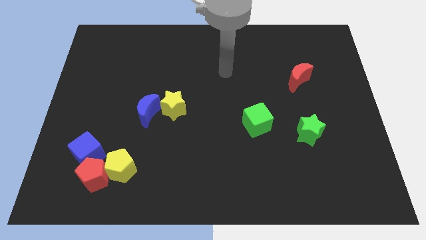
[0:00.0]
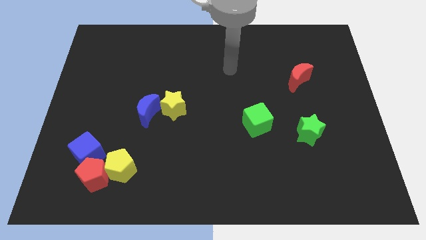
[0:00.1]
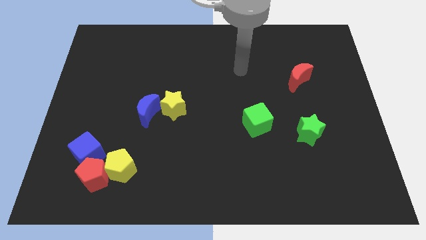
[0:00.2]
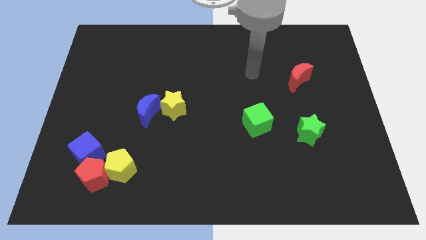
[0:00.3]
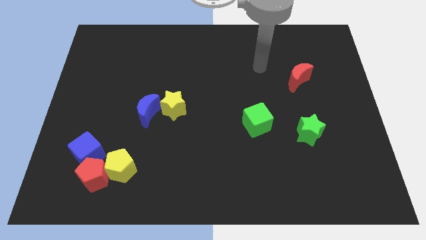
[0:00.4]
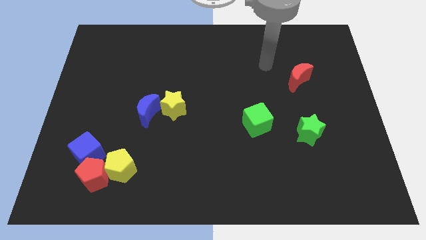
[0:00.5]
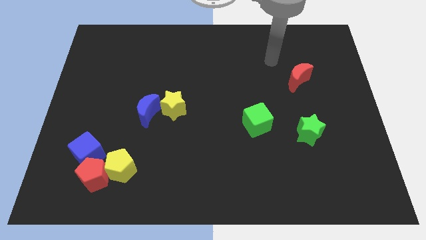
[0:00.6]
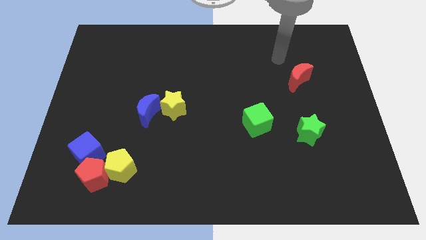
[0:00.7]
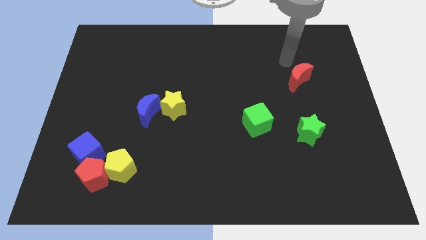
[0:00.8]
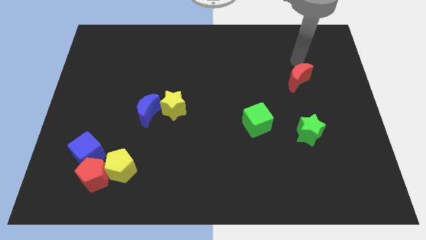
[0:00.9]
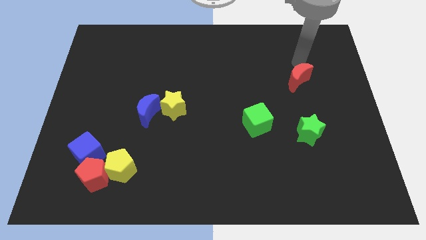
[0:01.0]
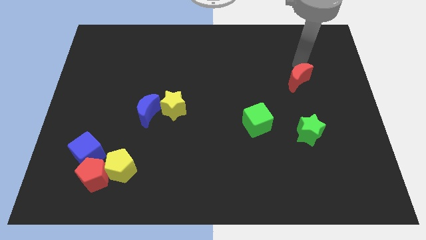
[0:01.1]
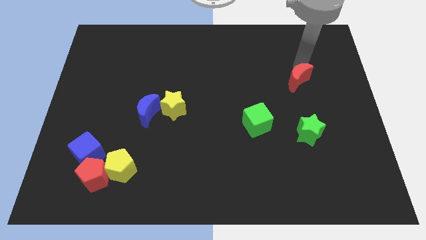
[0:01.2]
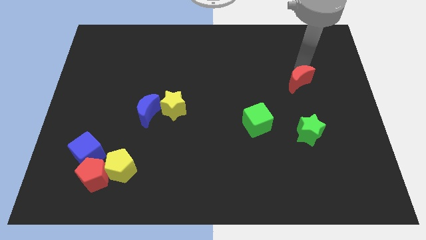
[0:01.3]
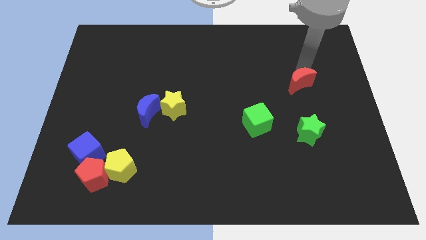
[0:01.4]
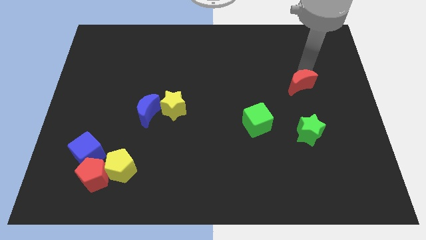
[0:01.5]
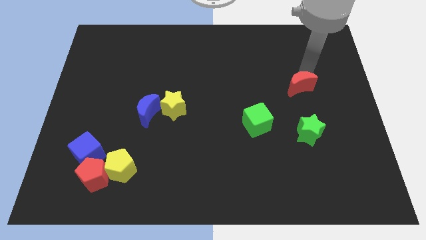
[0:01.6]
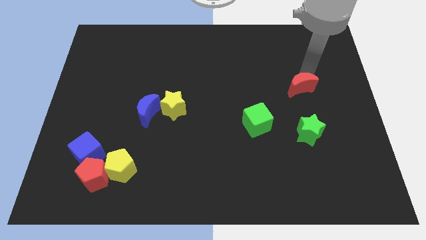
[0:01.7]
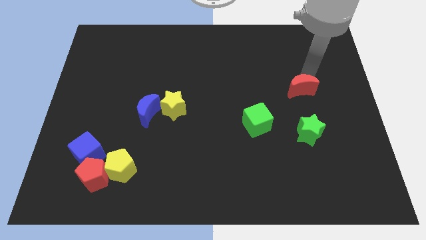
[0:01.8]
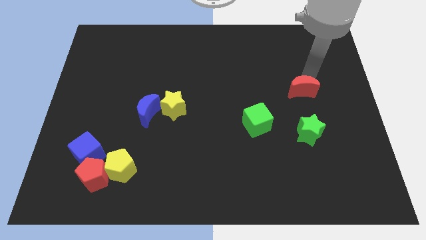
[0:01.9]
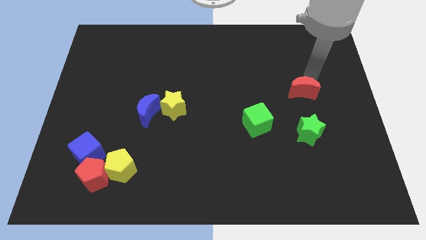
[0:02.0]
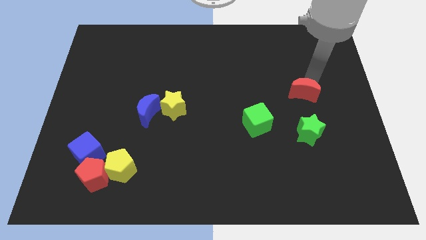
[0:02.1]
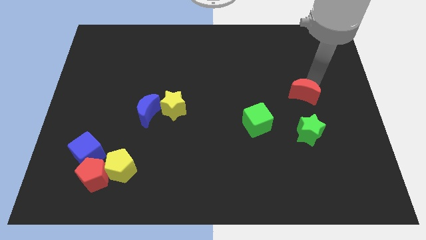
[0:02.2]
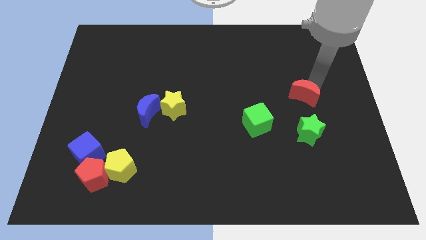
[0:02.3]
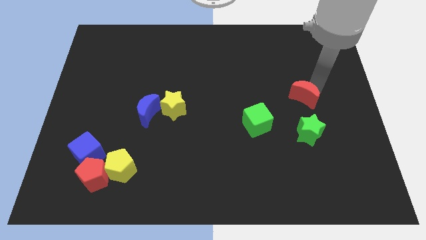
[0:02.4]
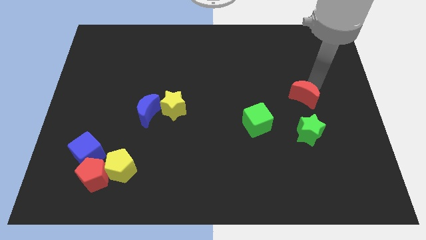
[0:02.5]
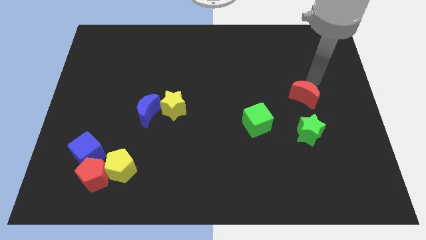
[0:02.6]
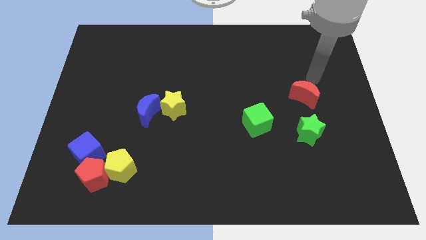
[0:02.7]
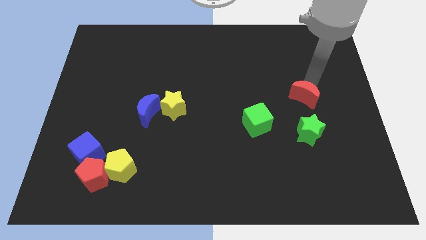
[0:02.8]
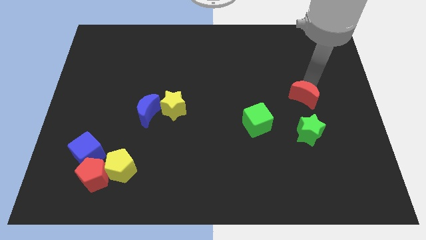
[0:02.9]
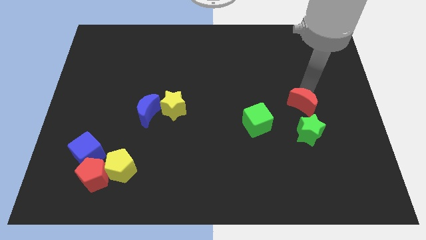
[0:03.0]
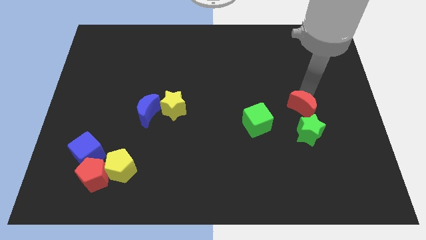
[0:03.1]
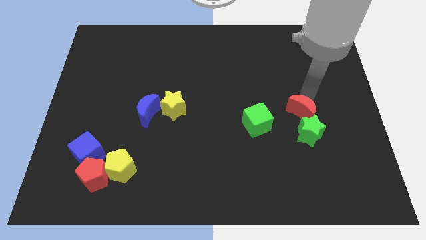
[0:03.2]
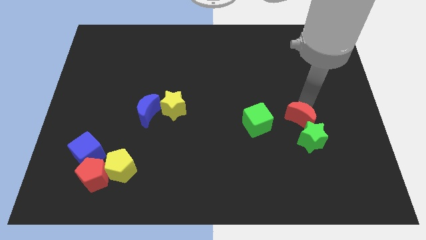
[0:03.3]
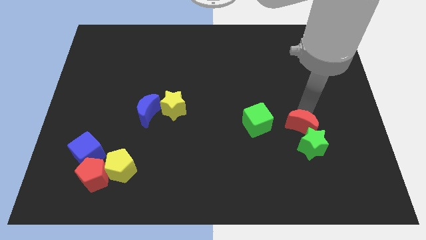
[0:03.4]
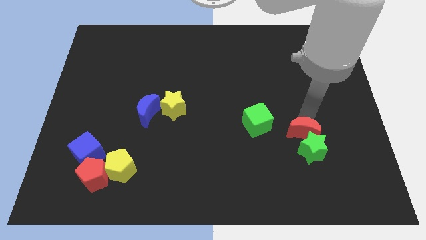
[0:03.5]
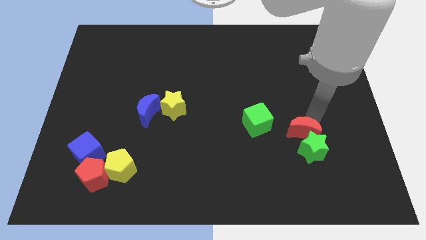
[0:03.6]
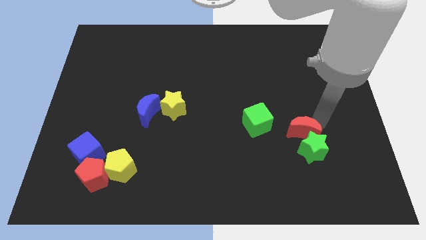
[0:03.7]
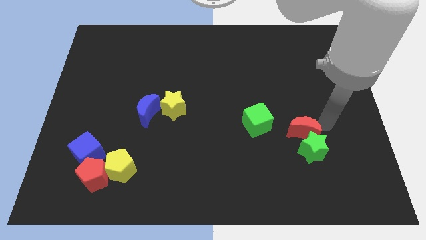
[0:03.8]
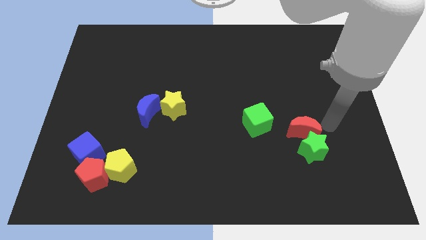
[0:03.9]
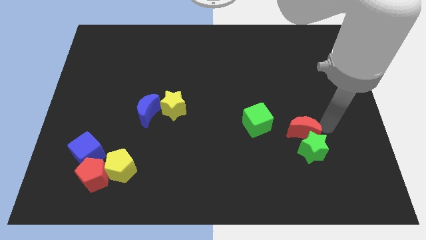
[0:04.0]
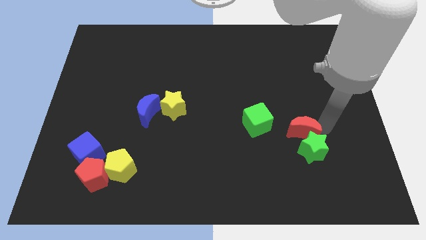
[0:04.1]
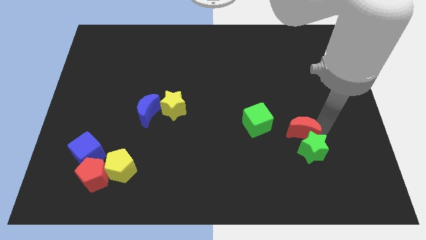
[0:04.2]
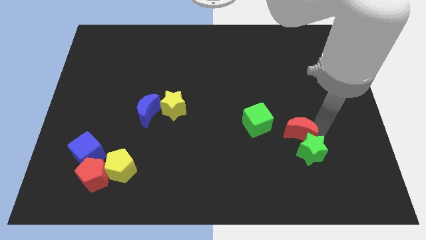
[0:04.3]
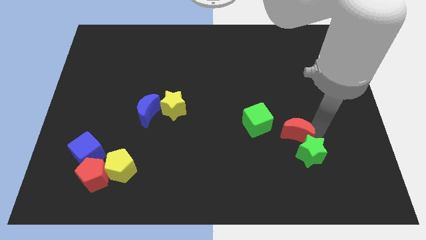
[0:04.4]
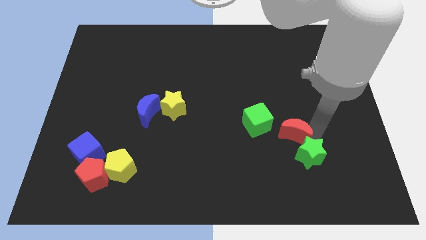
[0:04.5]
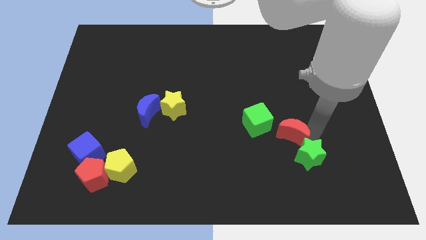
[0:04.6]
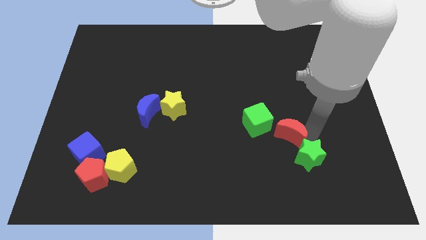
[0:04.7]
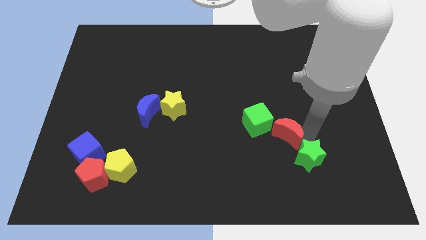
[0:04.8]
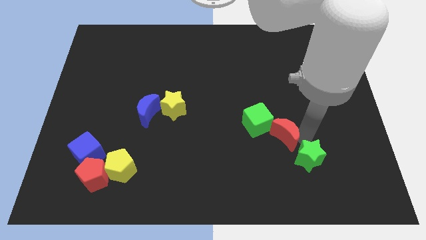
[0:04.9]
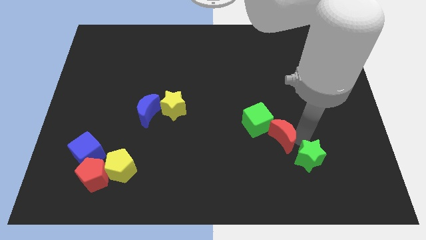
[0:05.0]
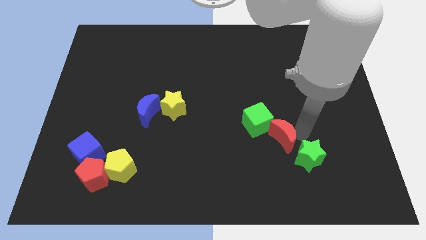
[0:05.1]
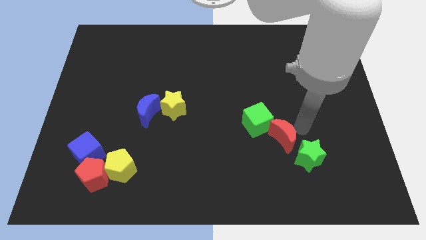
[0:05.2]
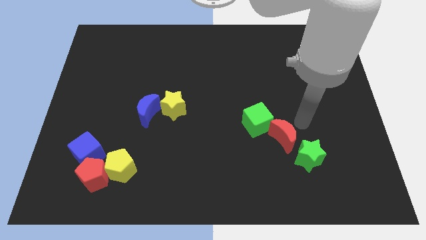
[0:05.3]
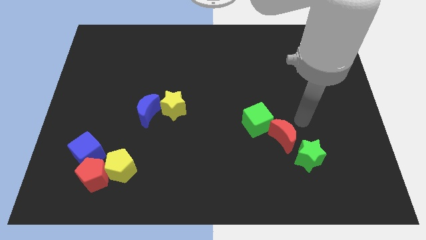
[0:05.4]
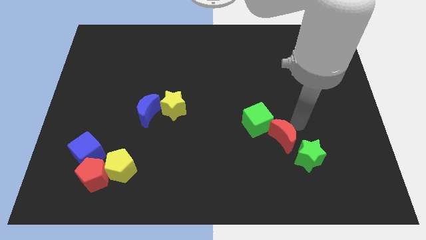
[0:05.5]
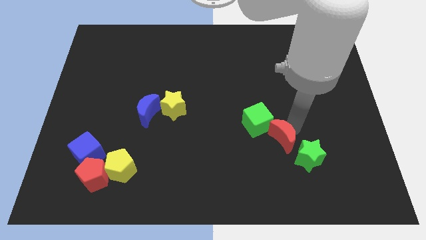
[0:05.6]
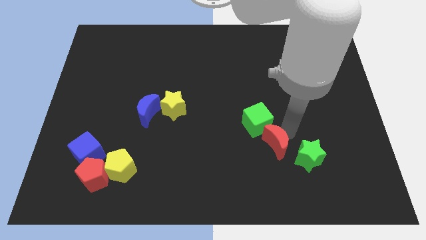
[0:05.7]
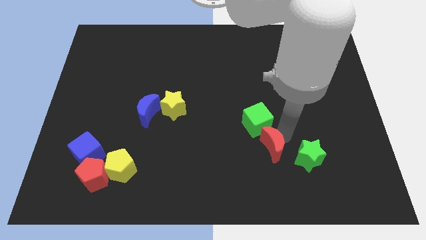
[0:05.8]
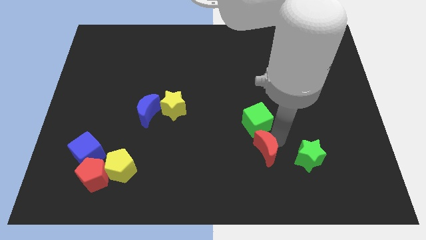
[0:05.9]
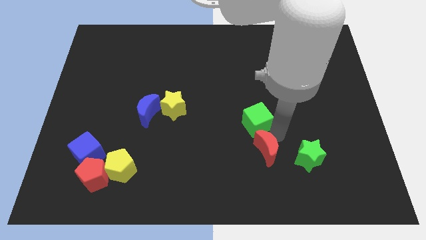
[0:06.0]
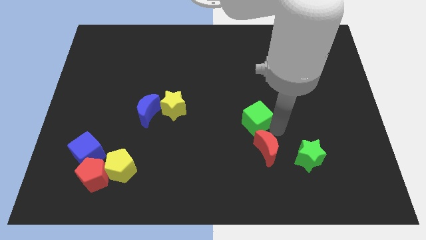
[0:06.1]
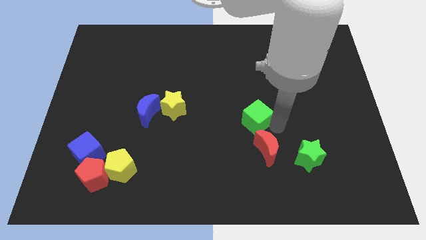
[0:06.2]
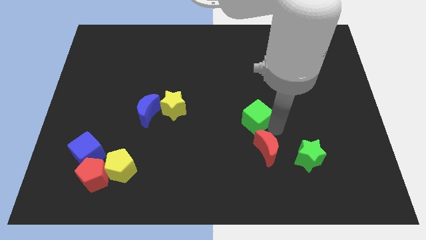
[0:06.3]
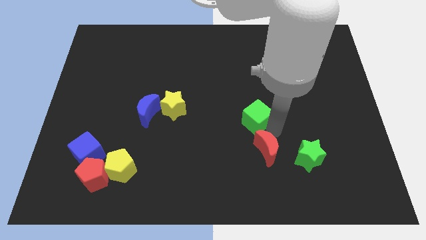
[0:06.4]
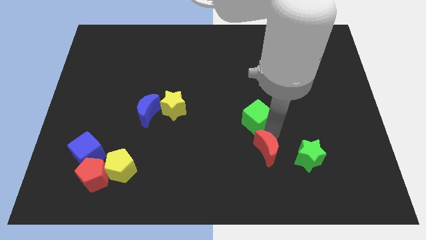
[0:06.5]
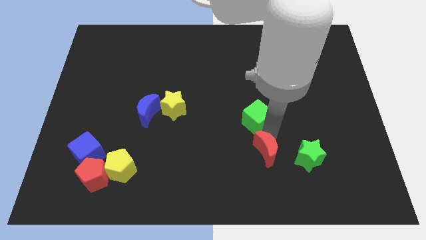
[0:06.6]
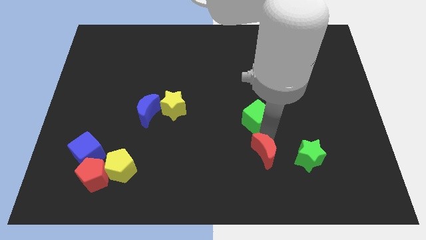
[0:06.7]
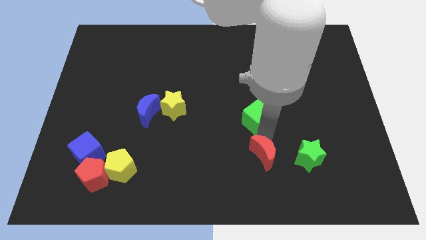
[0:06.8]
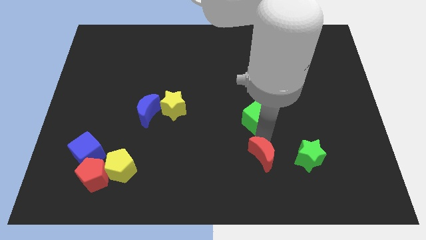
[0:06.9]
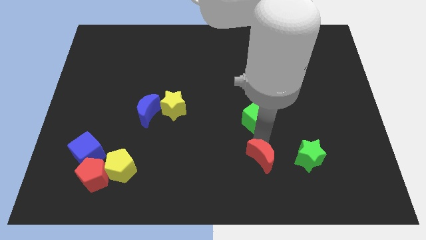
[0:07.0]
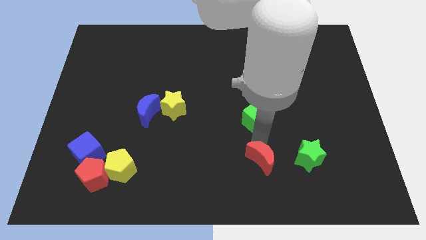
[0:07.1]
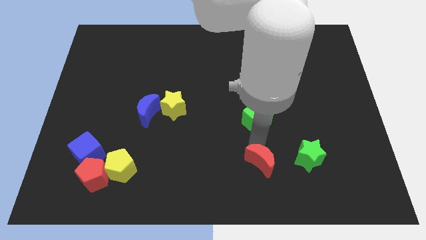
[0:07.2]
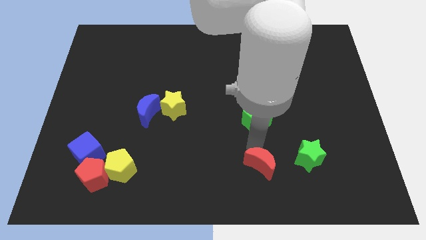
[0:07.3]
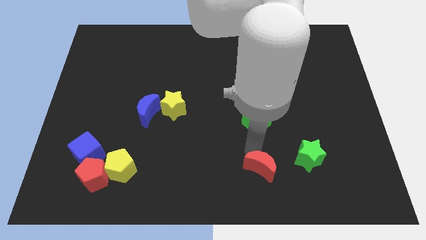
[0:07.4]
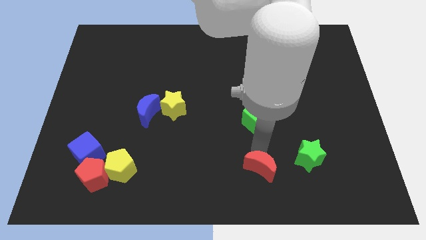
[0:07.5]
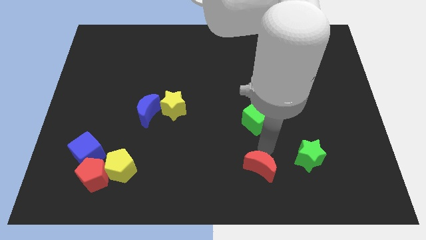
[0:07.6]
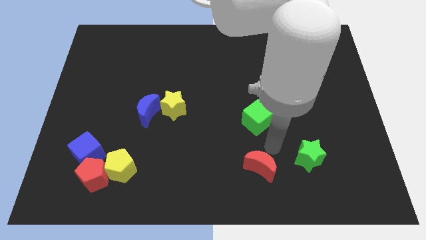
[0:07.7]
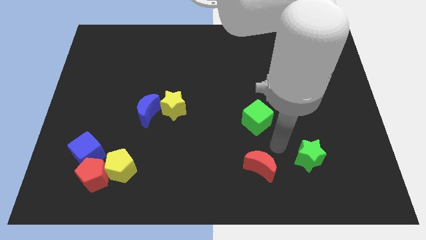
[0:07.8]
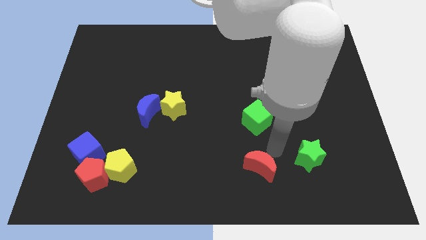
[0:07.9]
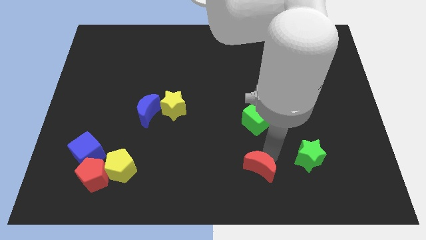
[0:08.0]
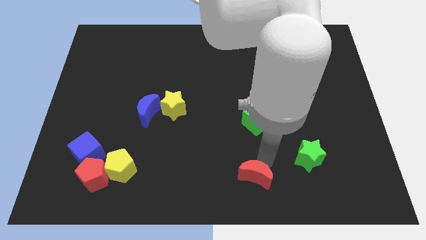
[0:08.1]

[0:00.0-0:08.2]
slide the red moon to the bottom side
